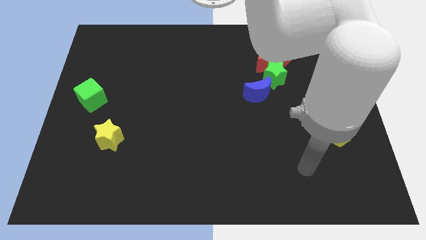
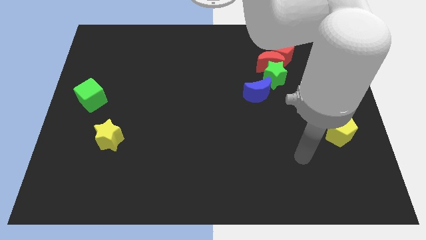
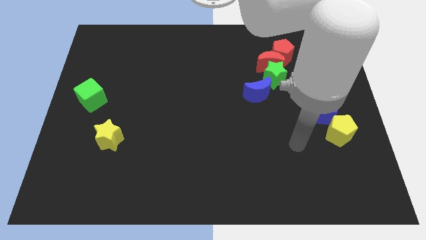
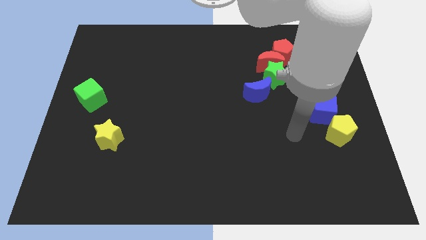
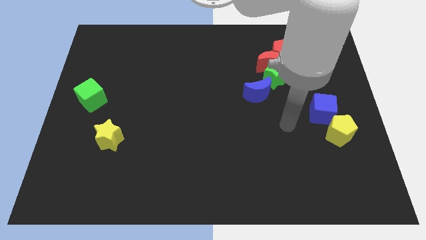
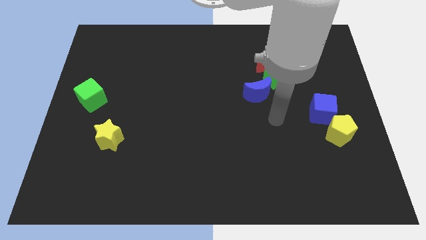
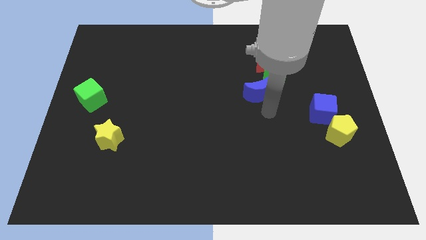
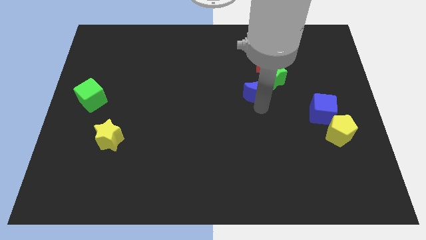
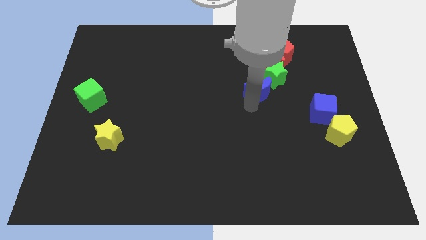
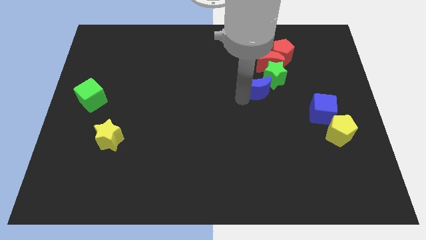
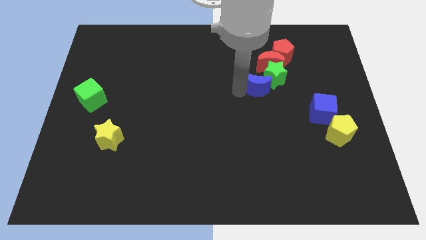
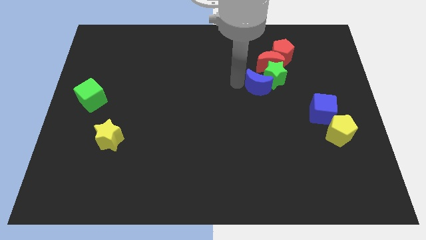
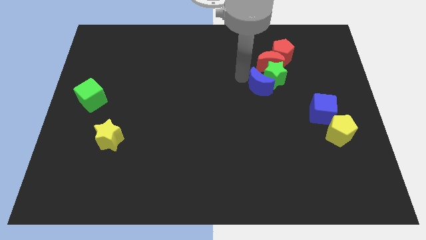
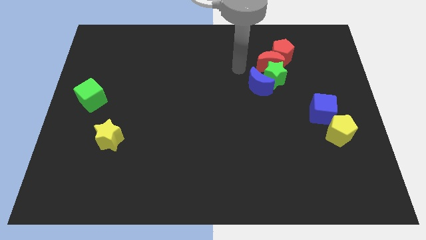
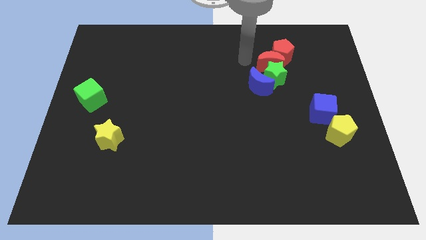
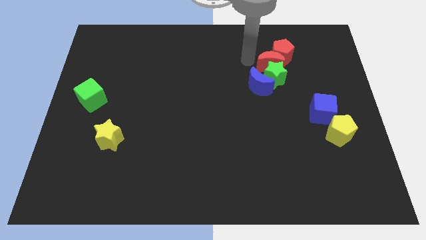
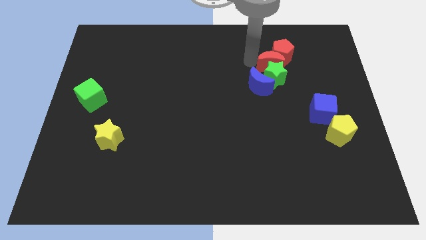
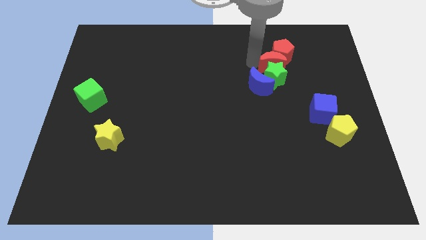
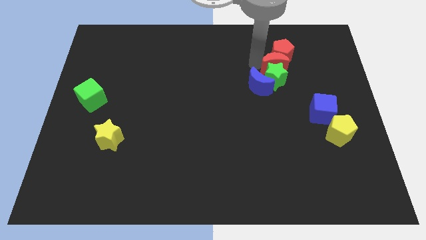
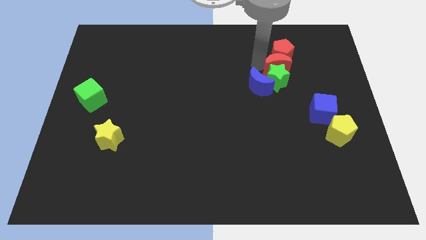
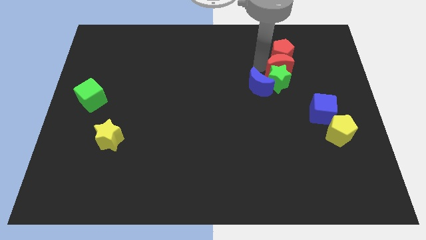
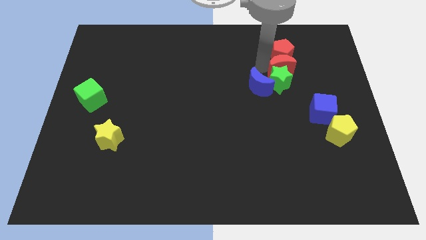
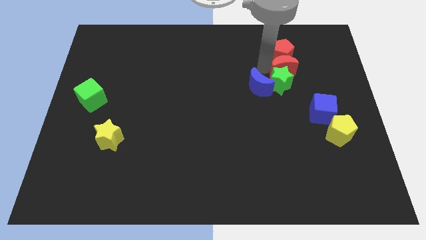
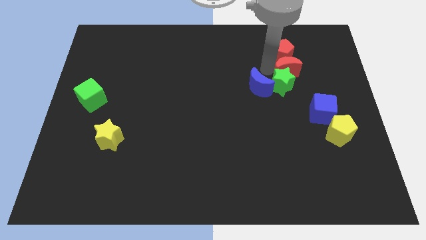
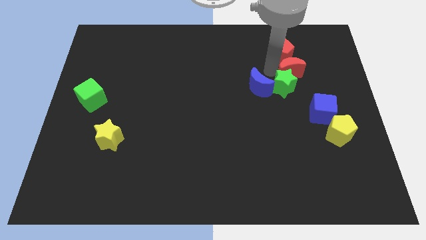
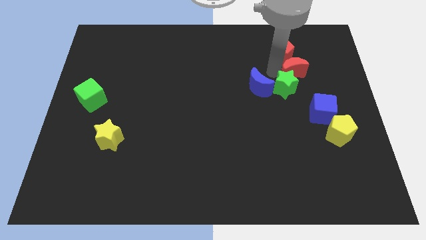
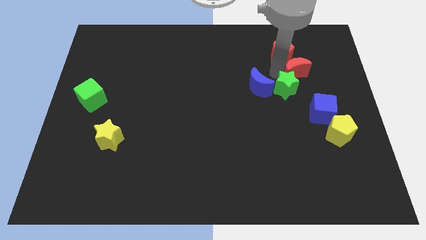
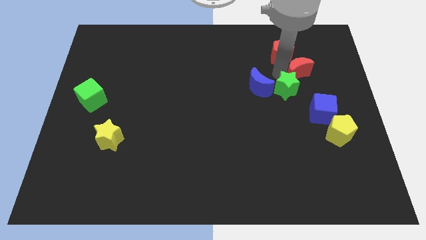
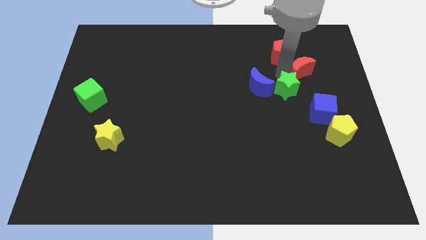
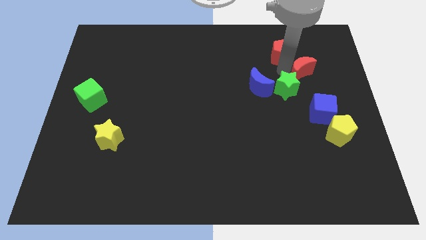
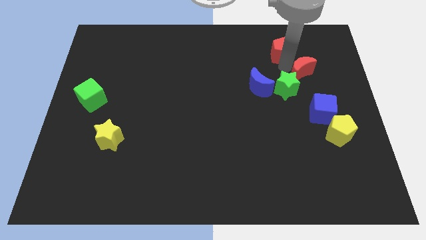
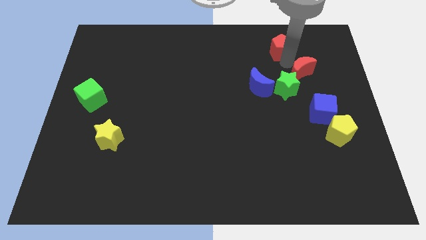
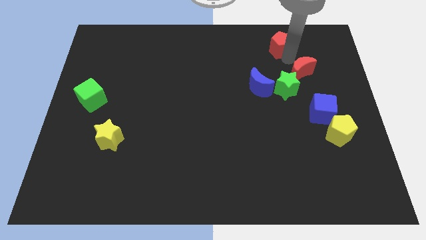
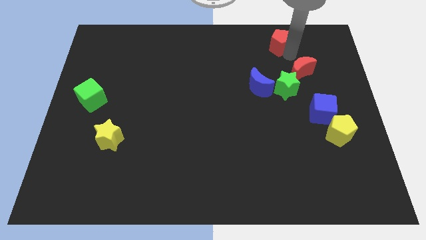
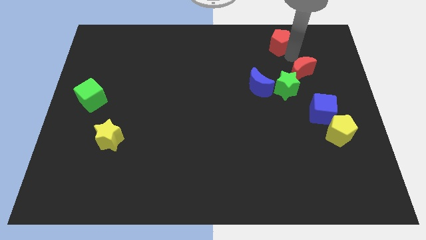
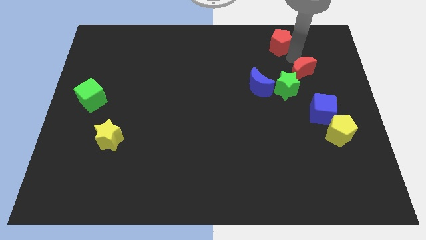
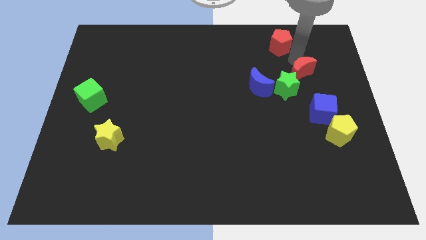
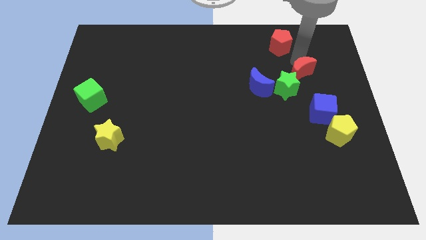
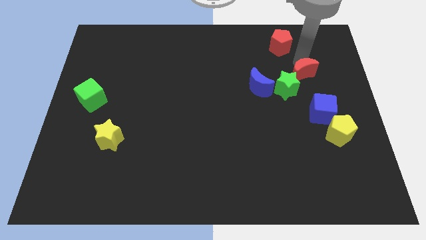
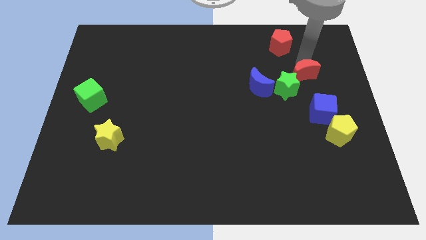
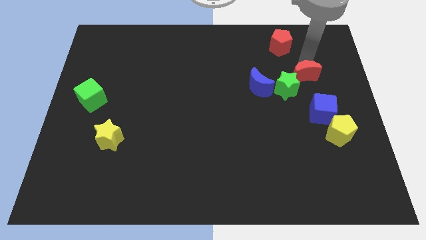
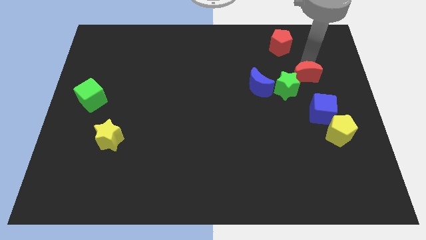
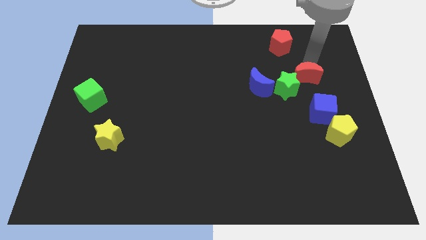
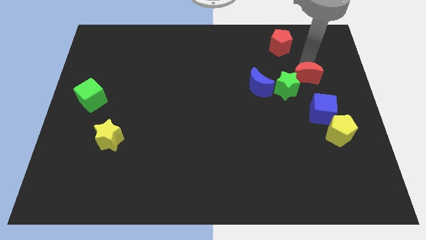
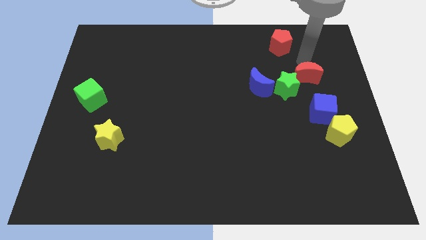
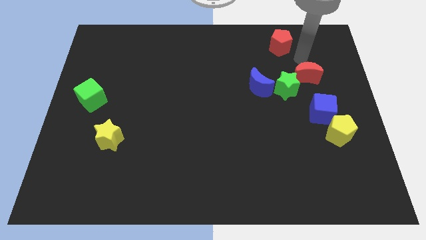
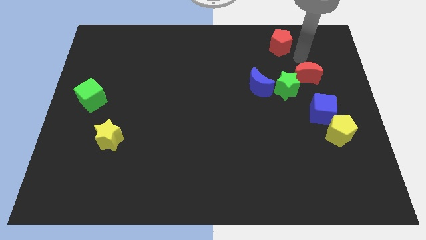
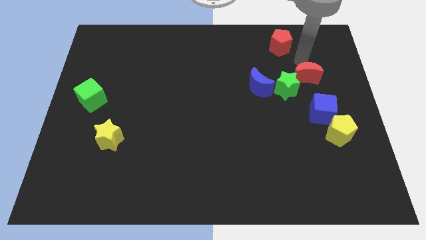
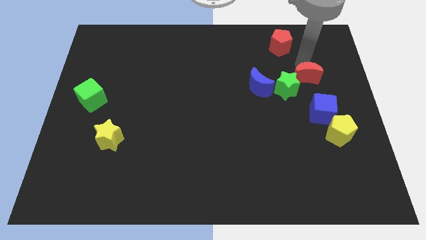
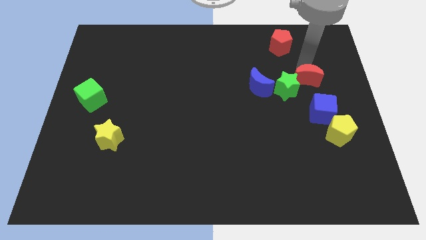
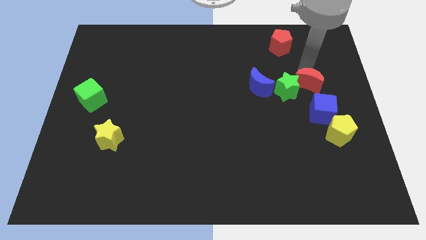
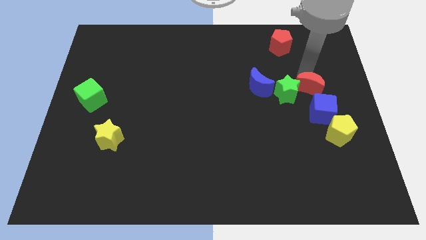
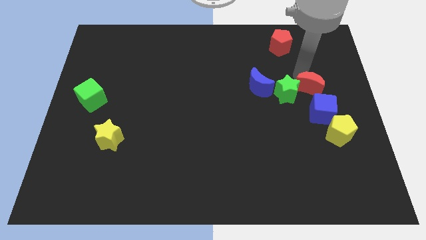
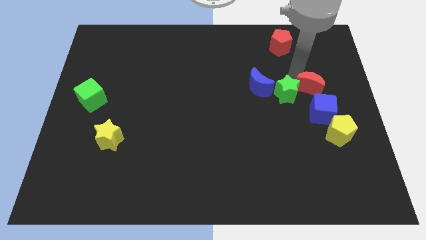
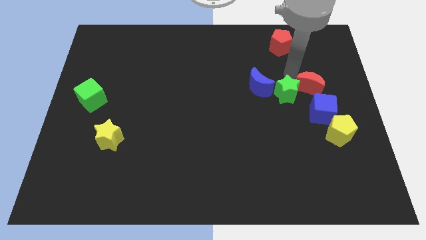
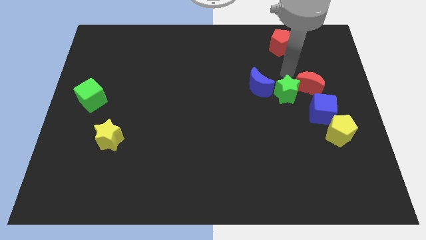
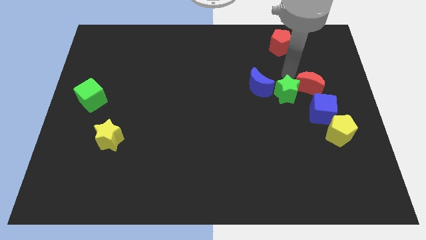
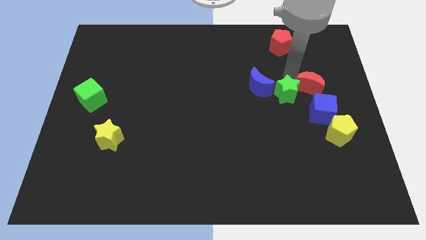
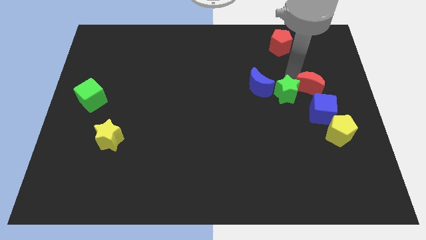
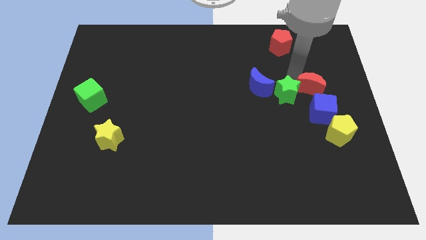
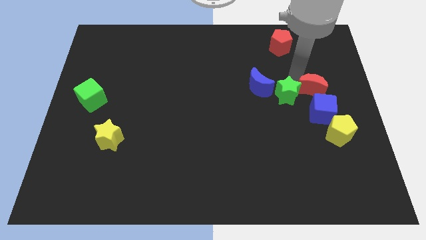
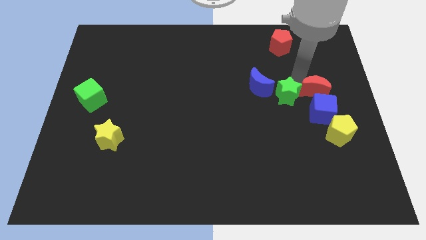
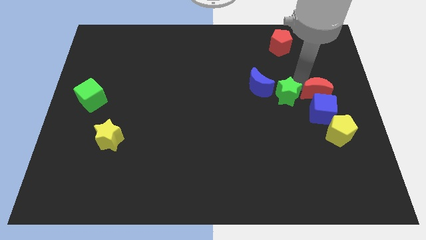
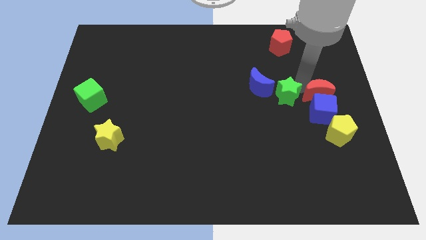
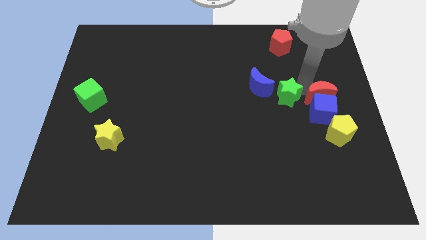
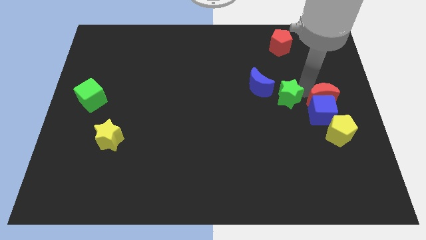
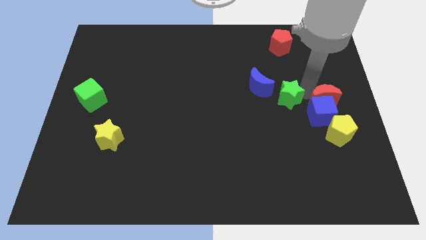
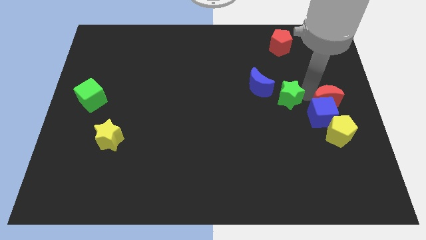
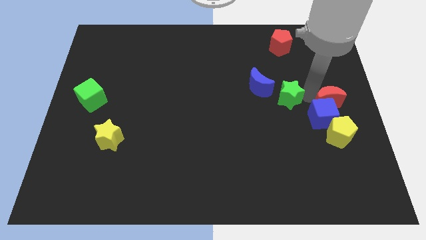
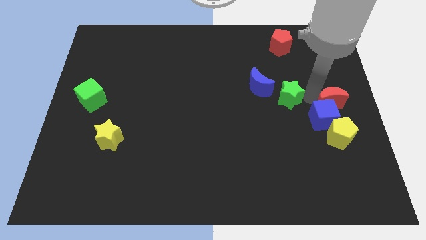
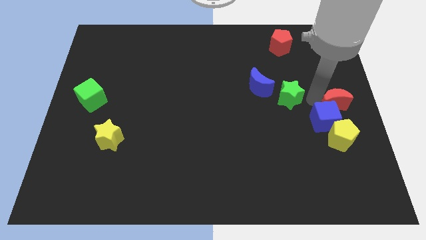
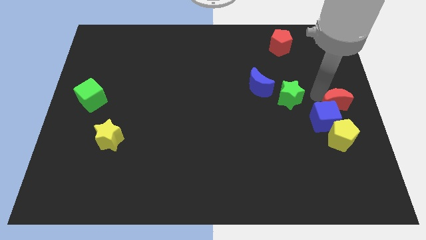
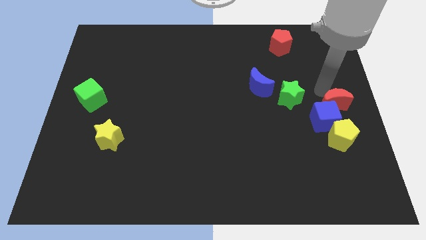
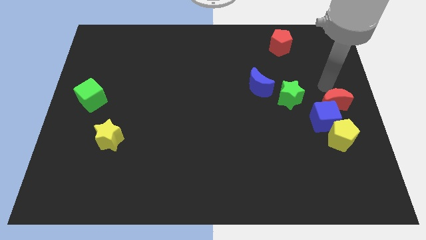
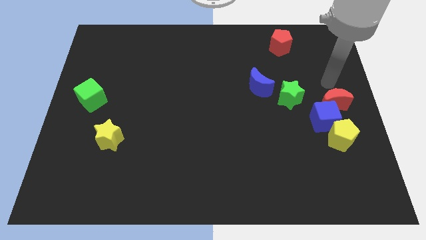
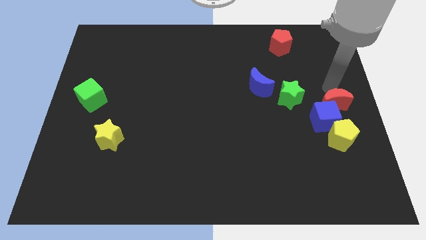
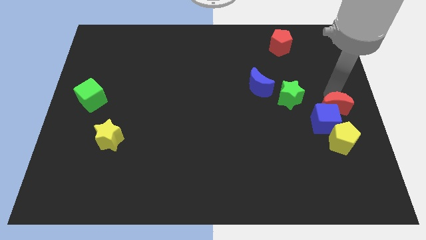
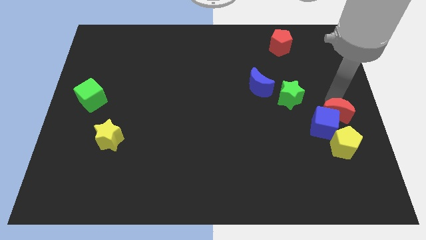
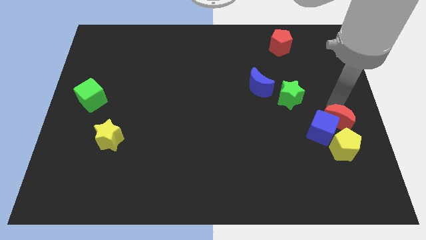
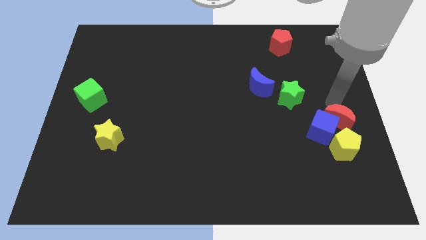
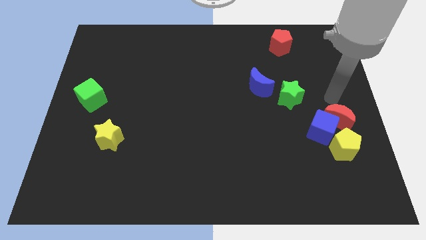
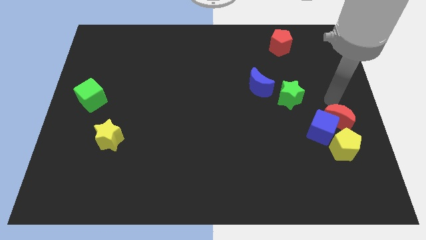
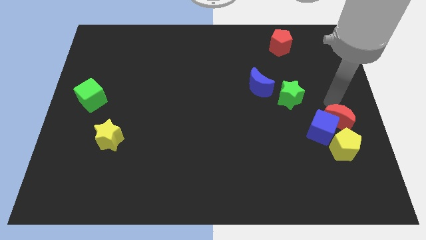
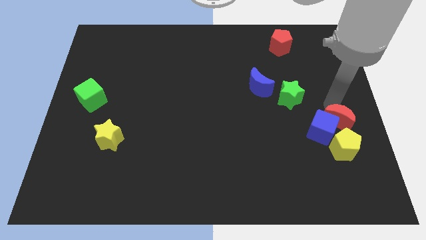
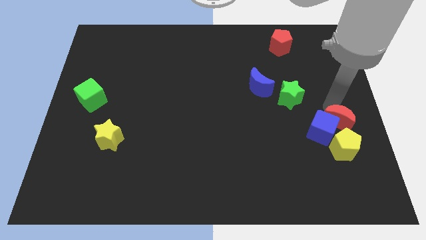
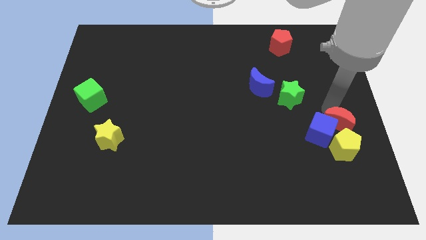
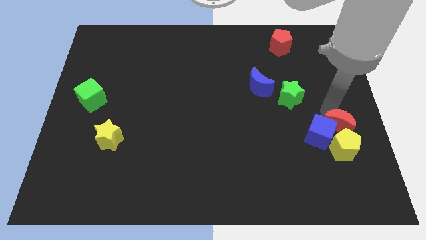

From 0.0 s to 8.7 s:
put the red moon to the yellow pentagon
